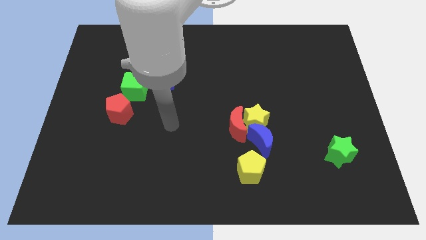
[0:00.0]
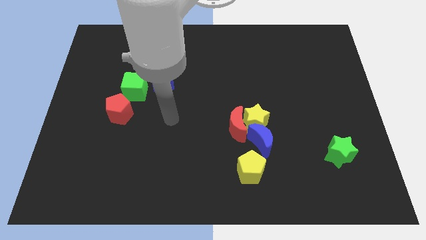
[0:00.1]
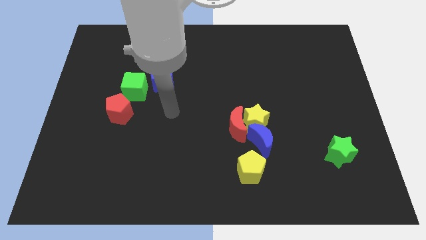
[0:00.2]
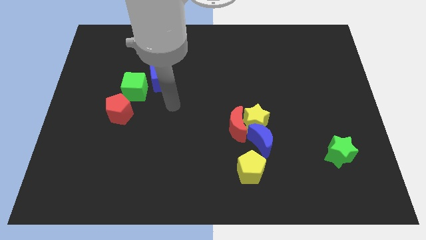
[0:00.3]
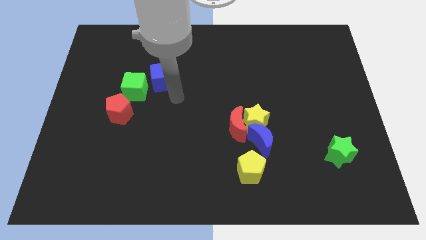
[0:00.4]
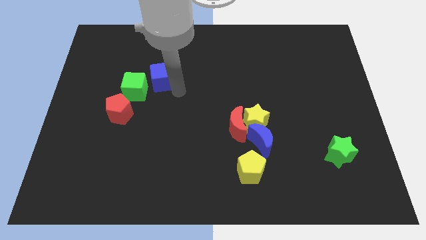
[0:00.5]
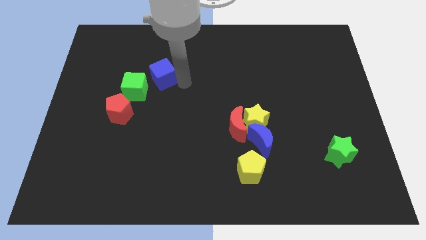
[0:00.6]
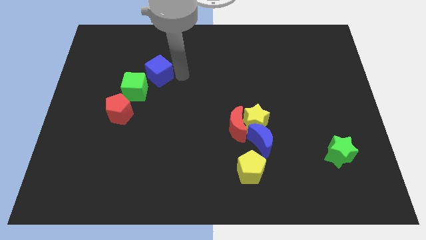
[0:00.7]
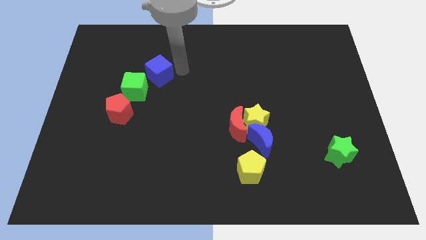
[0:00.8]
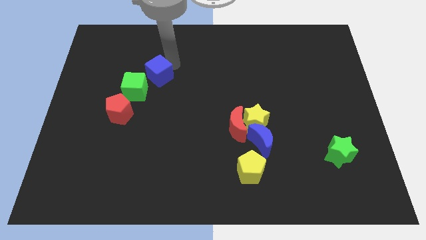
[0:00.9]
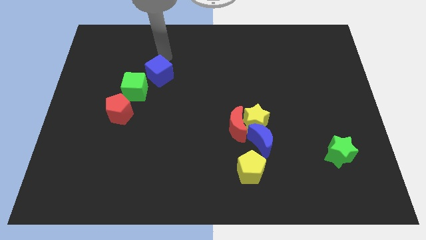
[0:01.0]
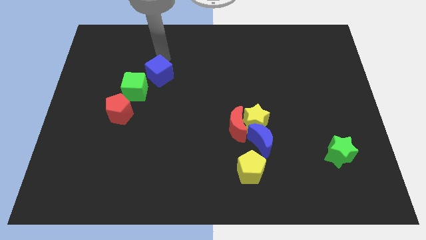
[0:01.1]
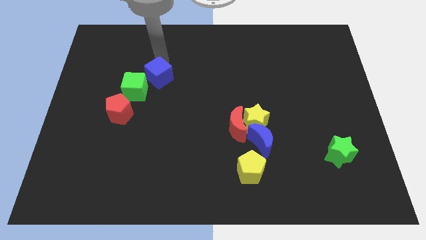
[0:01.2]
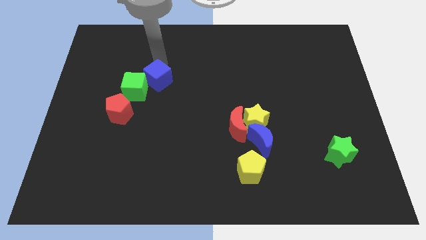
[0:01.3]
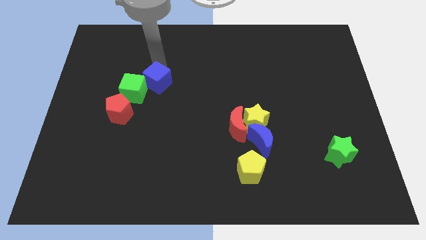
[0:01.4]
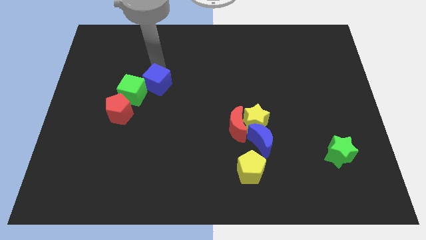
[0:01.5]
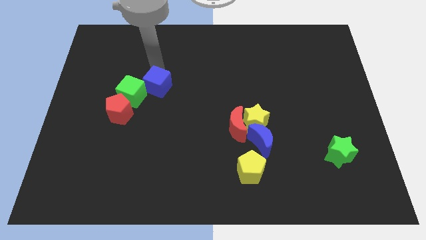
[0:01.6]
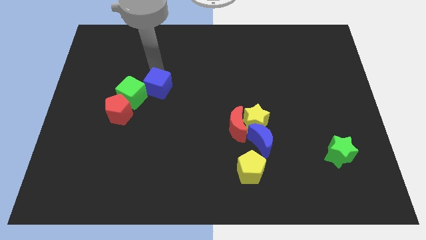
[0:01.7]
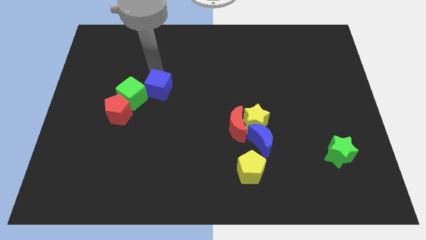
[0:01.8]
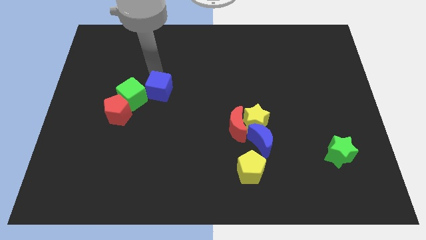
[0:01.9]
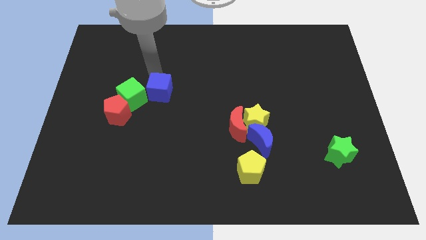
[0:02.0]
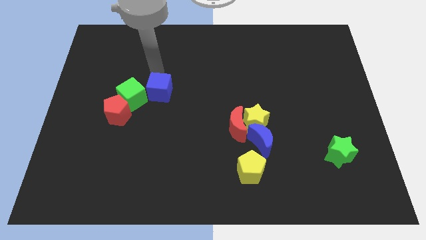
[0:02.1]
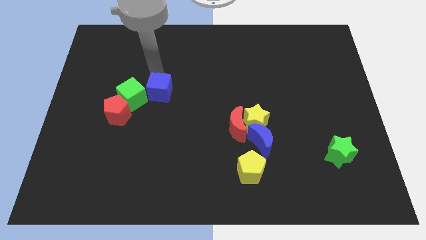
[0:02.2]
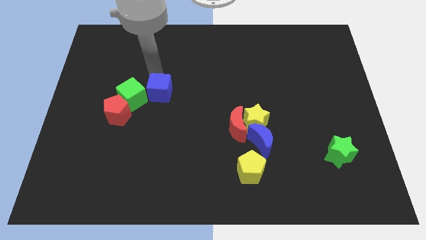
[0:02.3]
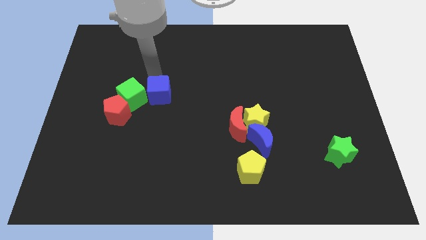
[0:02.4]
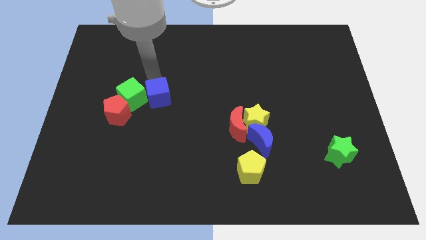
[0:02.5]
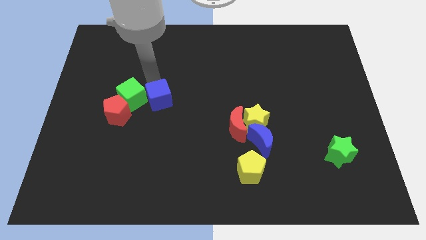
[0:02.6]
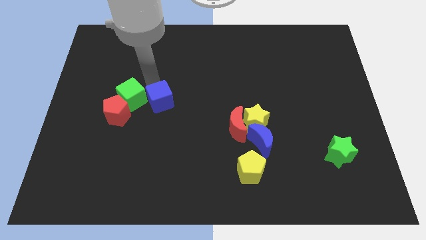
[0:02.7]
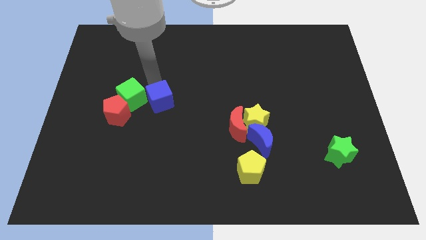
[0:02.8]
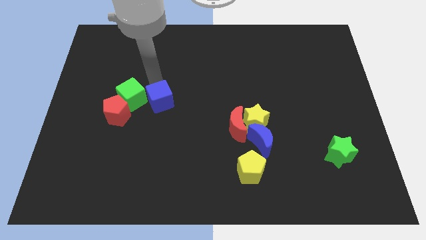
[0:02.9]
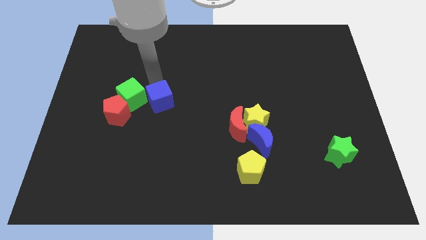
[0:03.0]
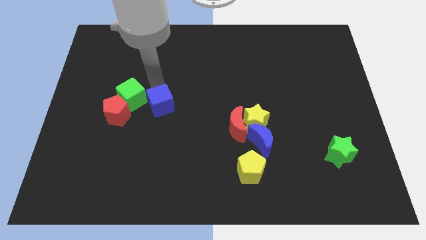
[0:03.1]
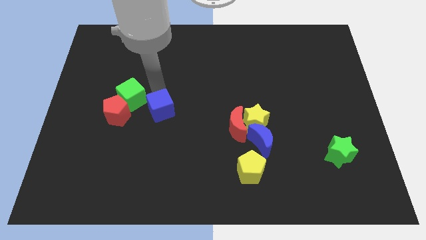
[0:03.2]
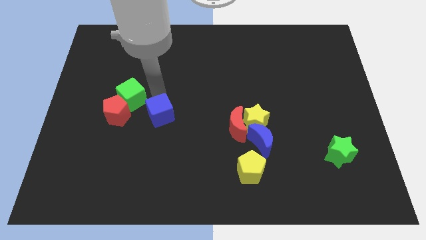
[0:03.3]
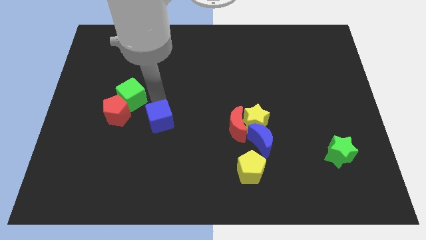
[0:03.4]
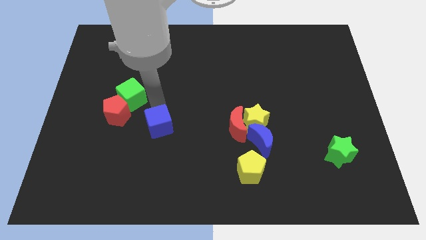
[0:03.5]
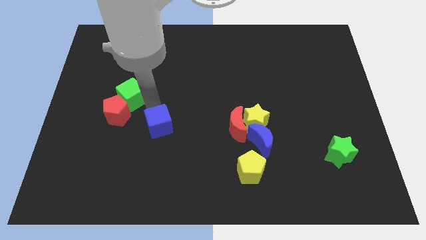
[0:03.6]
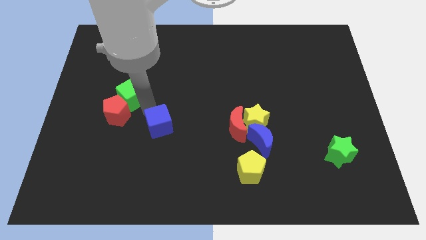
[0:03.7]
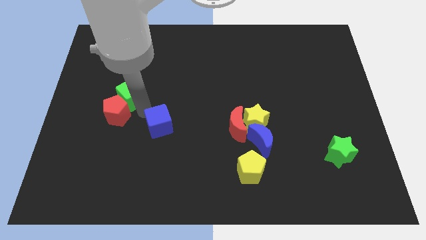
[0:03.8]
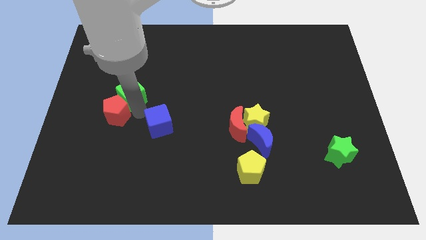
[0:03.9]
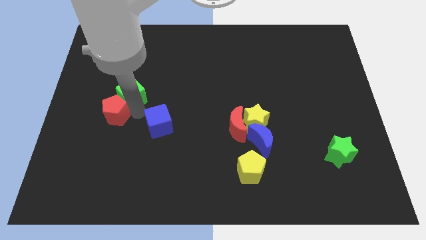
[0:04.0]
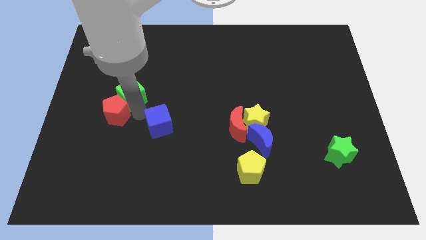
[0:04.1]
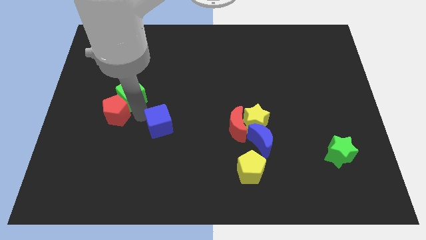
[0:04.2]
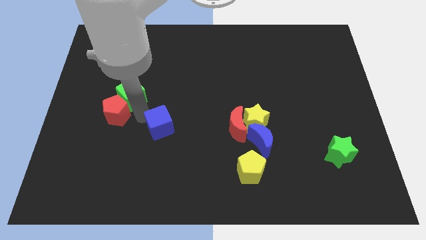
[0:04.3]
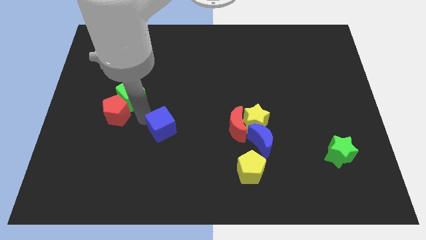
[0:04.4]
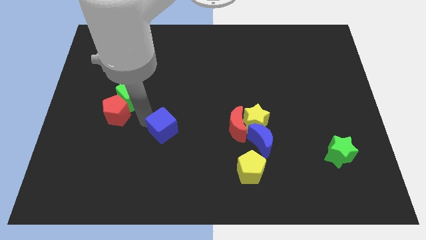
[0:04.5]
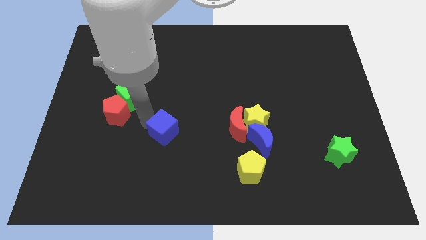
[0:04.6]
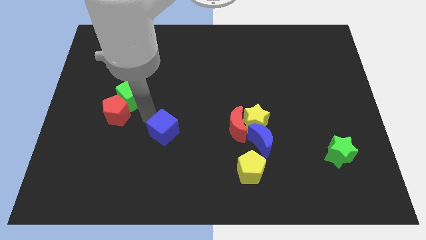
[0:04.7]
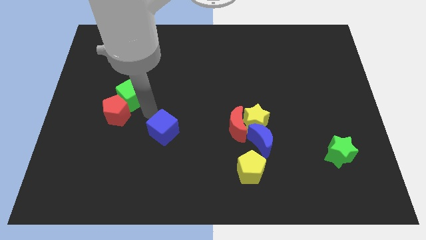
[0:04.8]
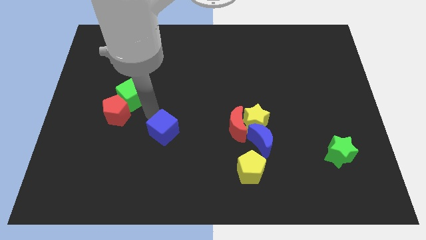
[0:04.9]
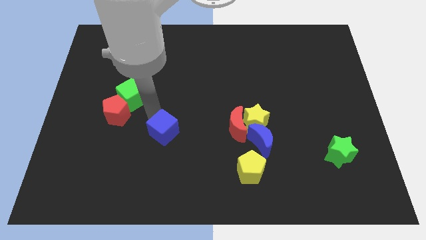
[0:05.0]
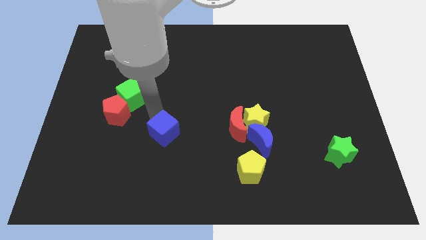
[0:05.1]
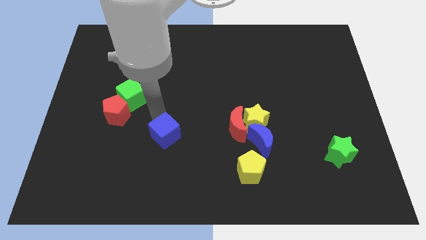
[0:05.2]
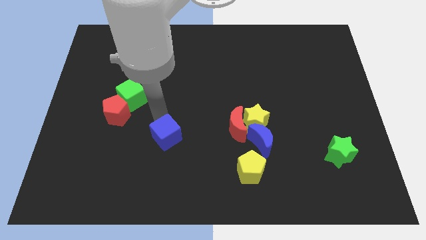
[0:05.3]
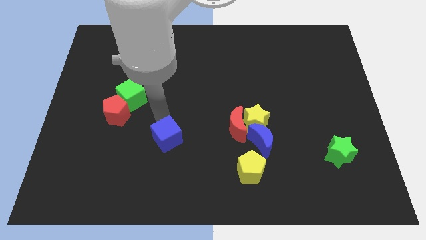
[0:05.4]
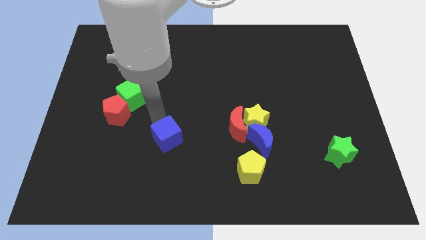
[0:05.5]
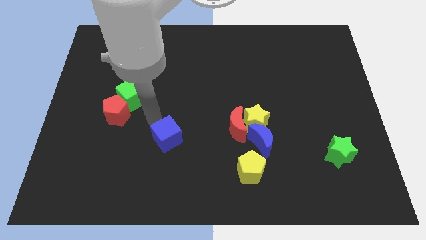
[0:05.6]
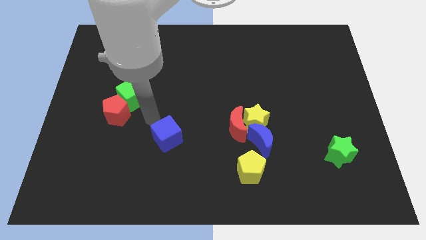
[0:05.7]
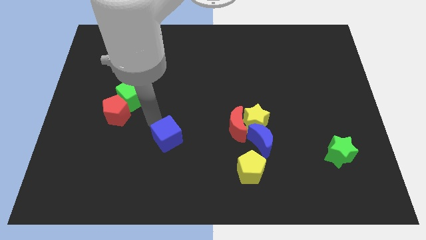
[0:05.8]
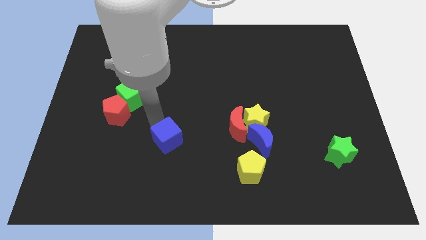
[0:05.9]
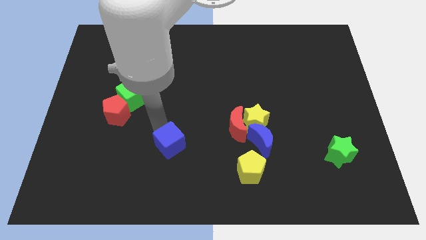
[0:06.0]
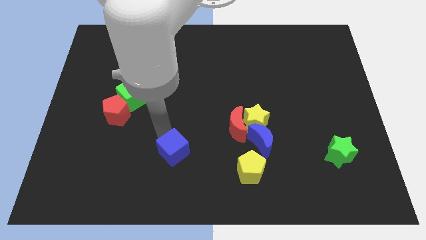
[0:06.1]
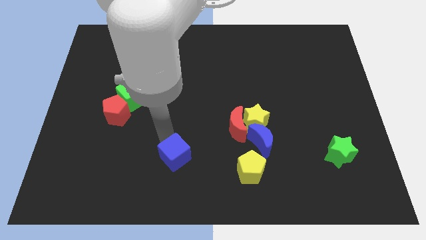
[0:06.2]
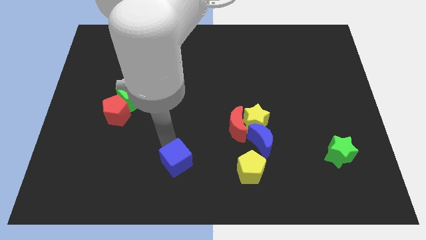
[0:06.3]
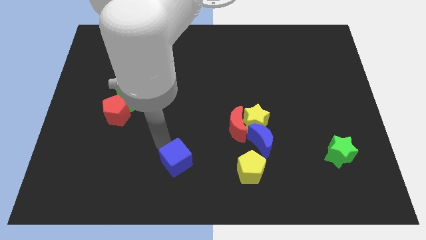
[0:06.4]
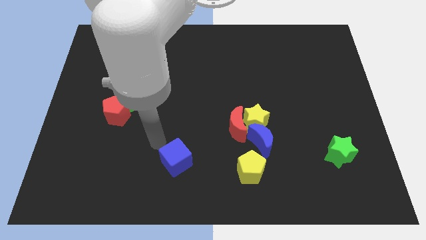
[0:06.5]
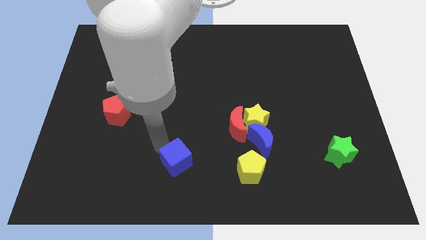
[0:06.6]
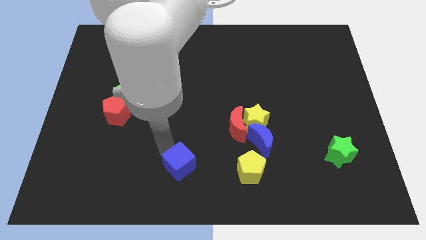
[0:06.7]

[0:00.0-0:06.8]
push the blue cube to the bottom side
